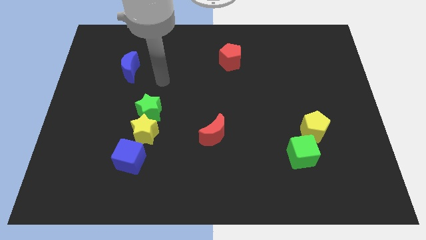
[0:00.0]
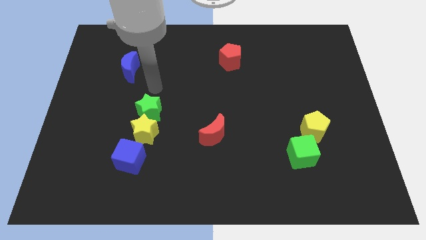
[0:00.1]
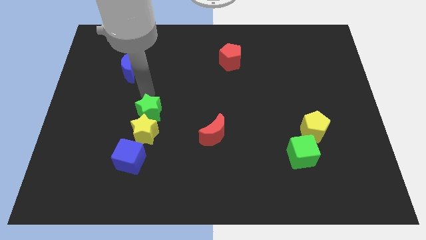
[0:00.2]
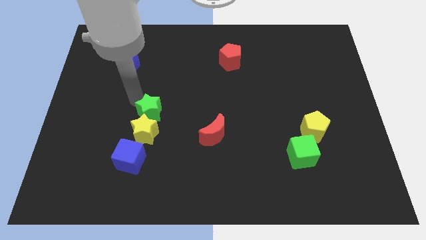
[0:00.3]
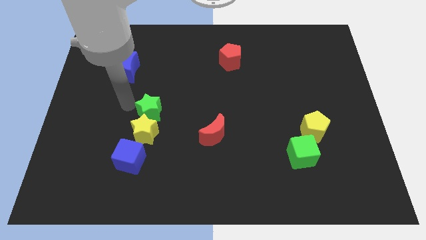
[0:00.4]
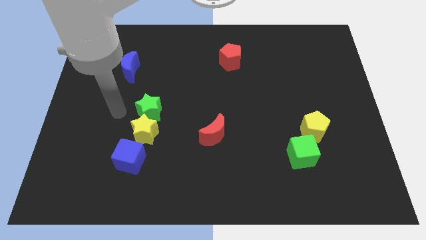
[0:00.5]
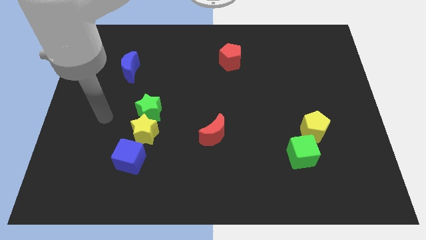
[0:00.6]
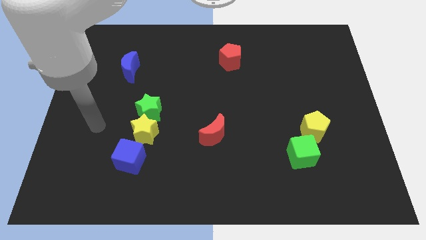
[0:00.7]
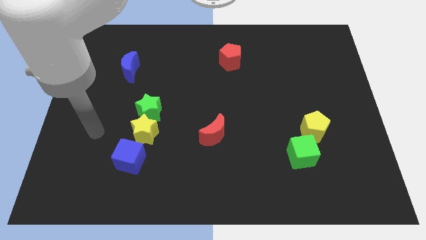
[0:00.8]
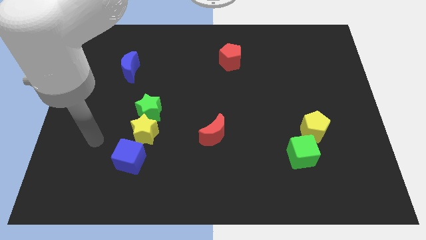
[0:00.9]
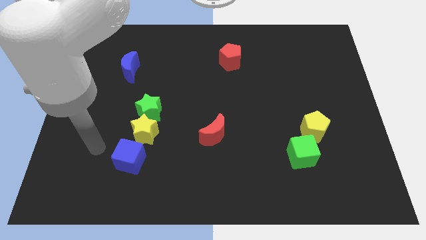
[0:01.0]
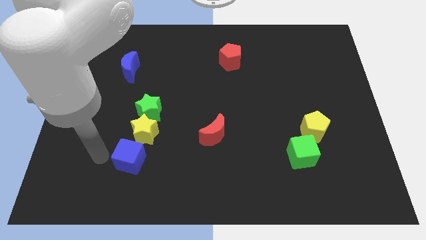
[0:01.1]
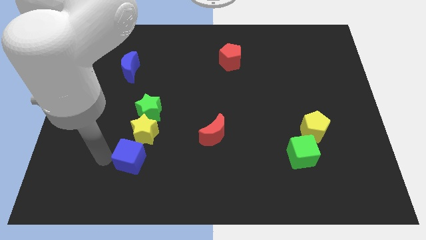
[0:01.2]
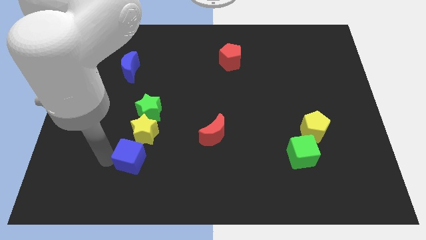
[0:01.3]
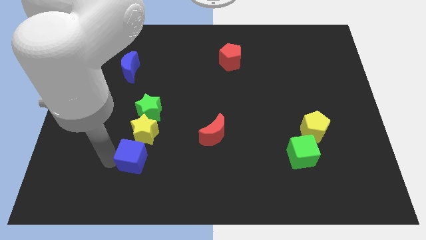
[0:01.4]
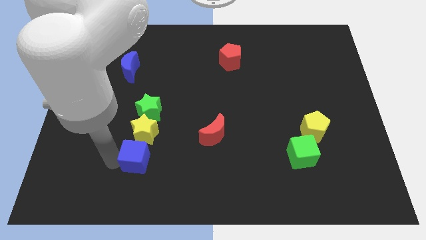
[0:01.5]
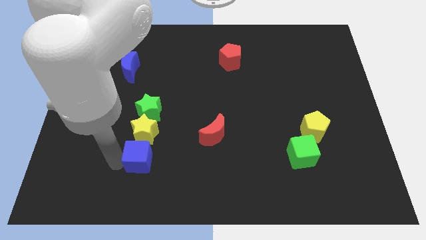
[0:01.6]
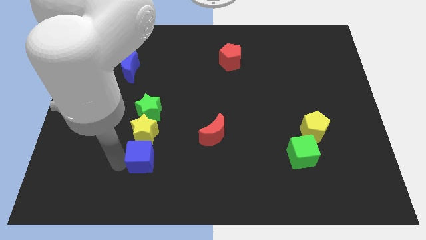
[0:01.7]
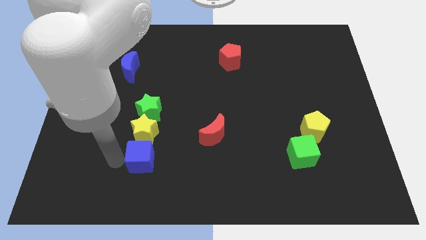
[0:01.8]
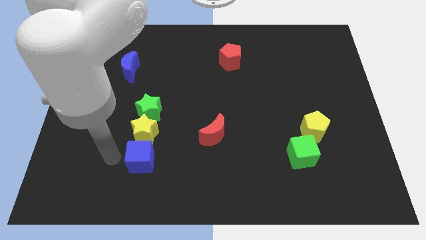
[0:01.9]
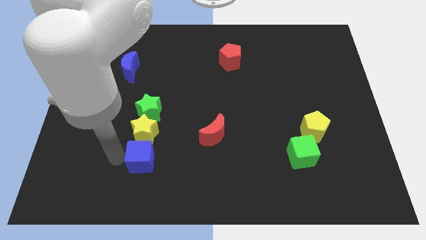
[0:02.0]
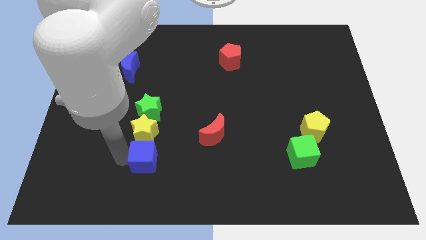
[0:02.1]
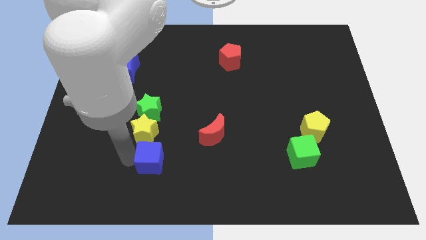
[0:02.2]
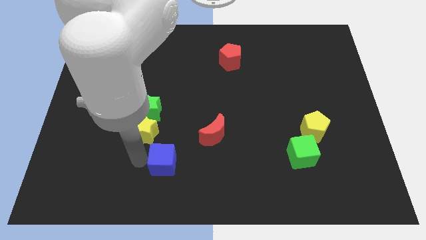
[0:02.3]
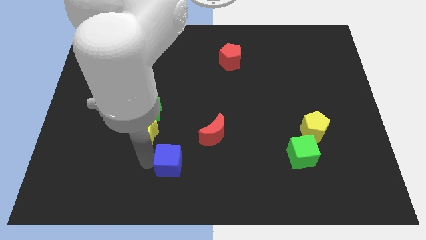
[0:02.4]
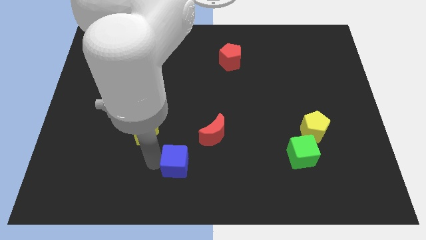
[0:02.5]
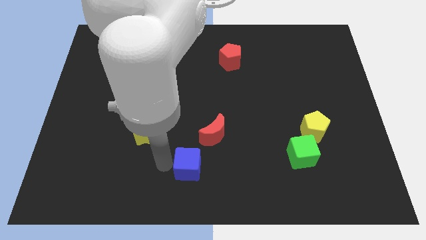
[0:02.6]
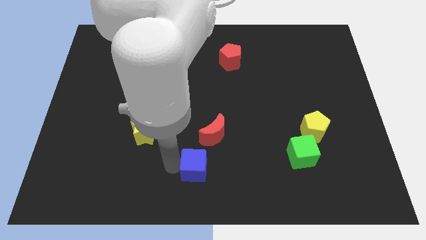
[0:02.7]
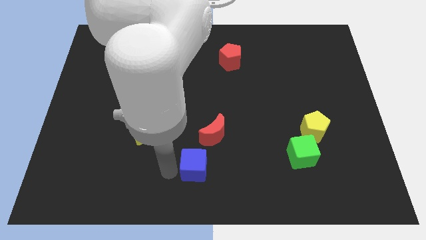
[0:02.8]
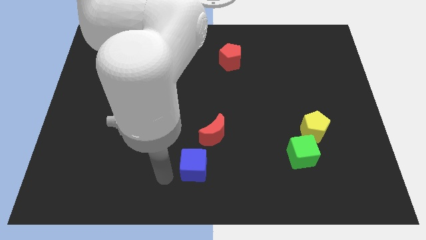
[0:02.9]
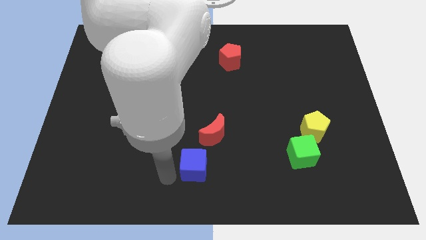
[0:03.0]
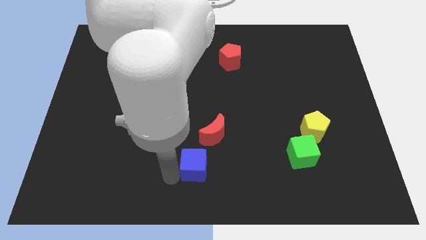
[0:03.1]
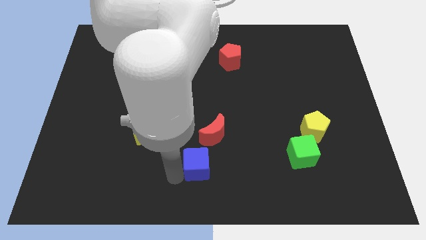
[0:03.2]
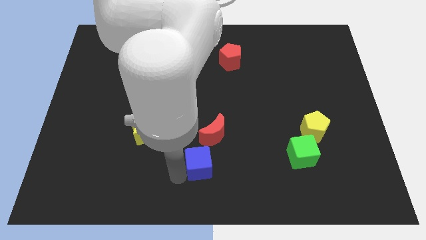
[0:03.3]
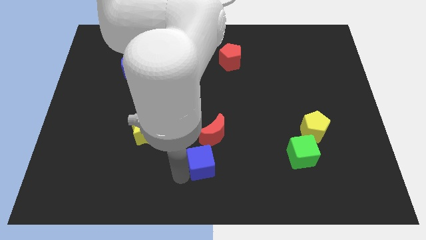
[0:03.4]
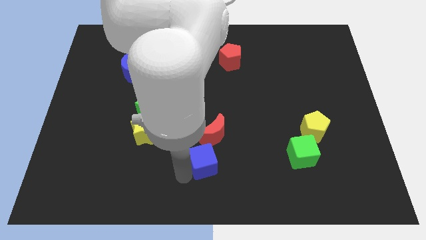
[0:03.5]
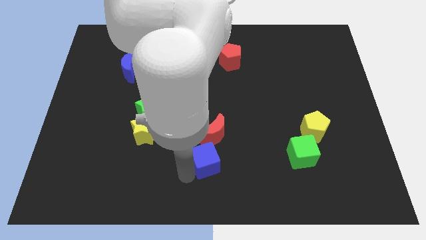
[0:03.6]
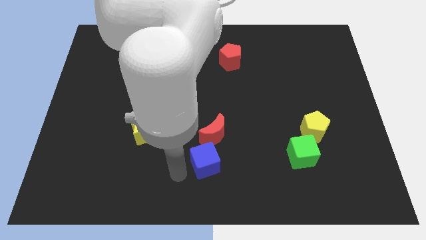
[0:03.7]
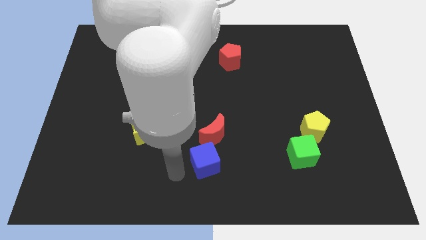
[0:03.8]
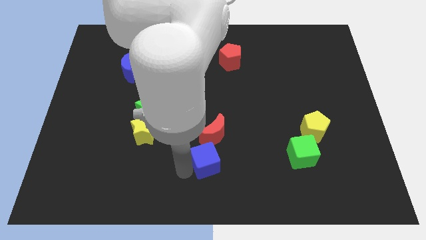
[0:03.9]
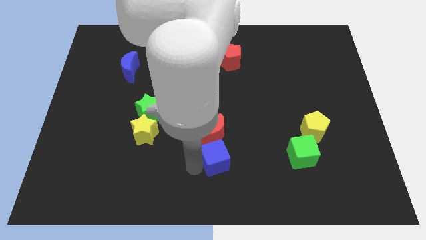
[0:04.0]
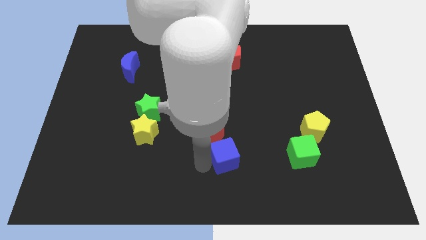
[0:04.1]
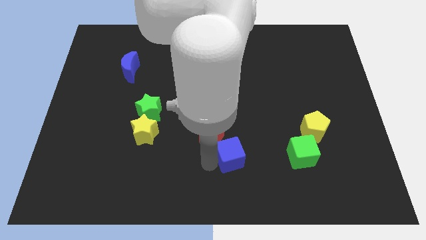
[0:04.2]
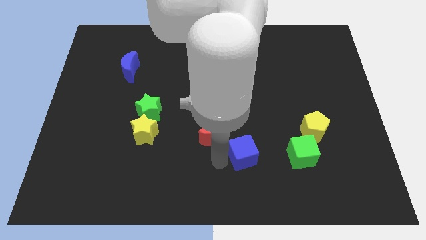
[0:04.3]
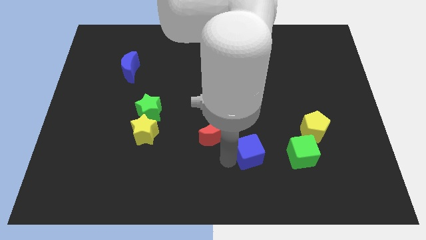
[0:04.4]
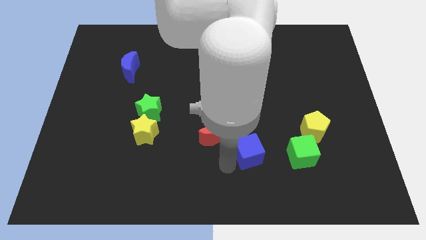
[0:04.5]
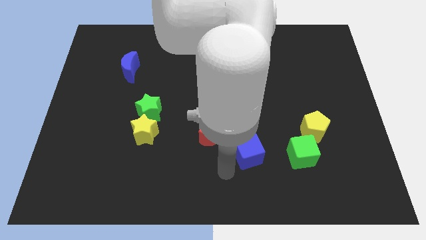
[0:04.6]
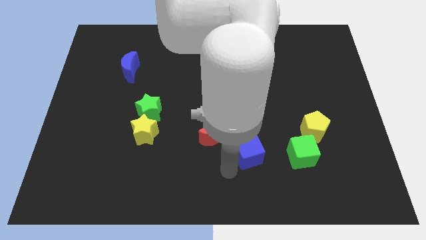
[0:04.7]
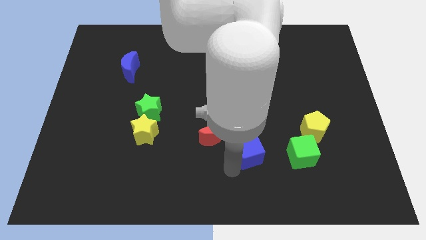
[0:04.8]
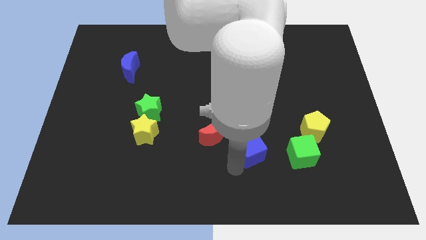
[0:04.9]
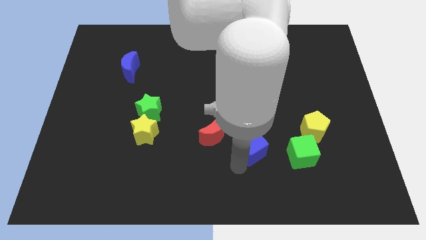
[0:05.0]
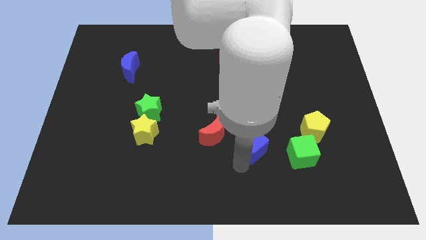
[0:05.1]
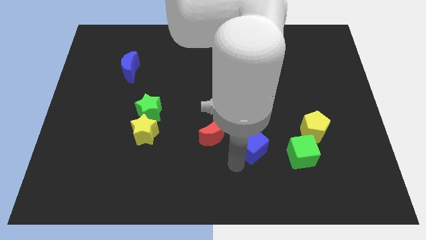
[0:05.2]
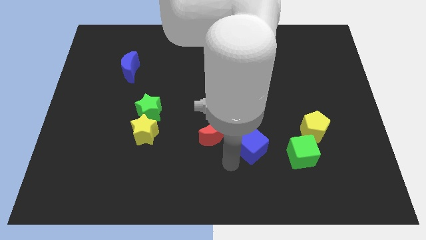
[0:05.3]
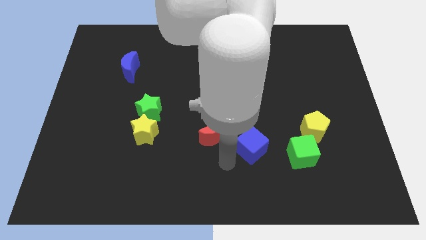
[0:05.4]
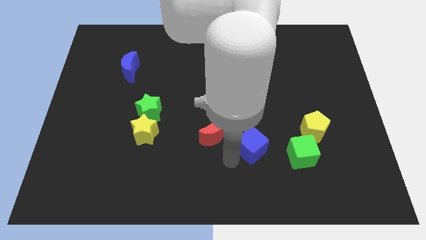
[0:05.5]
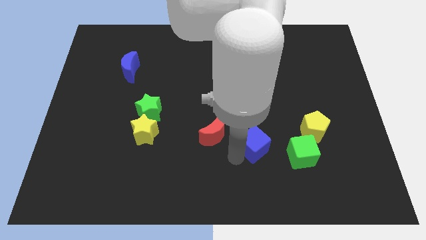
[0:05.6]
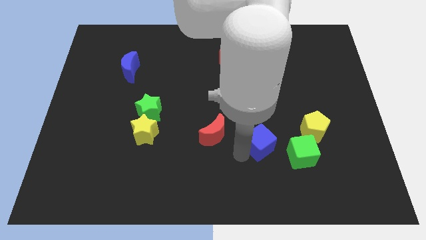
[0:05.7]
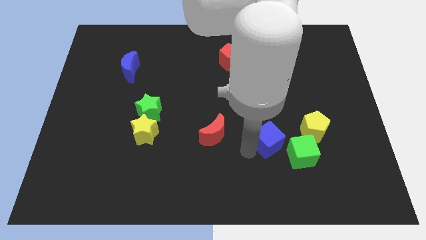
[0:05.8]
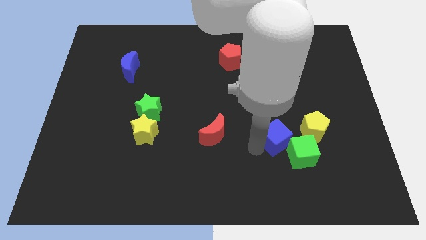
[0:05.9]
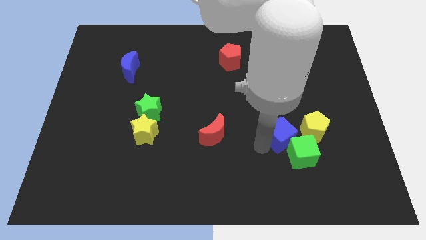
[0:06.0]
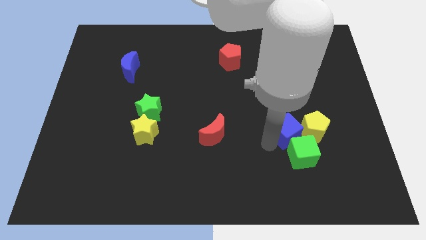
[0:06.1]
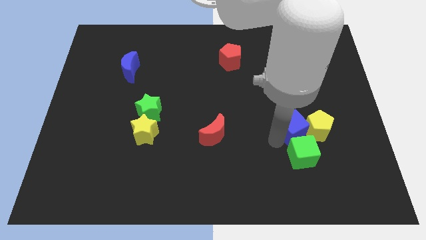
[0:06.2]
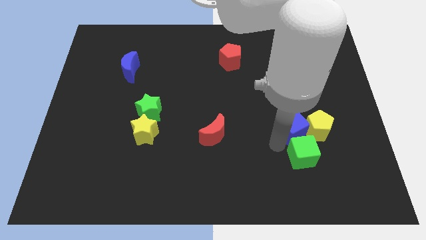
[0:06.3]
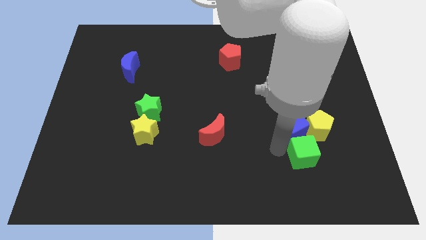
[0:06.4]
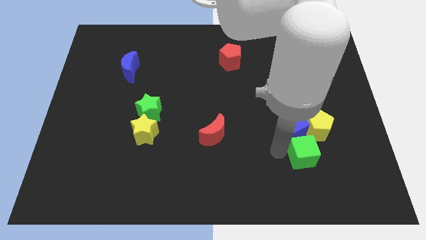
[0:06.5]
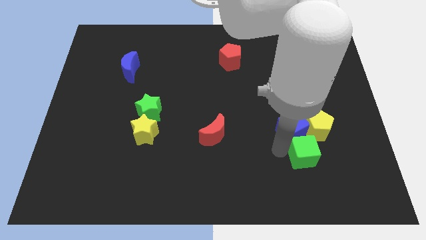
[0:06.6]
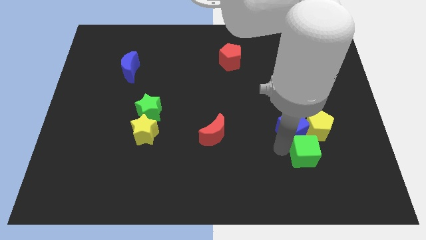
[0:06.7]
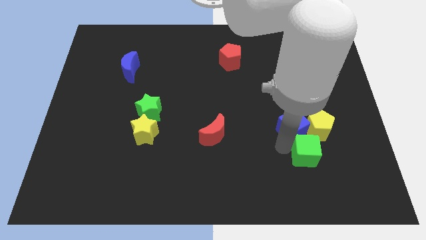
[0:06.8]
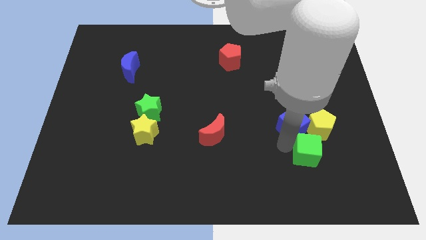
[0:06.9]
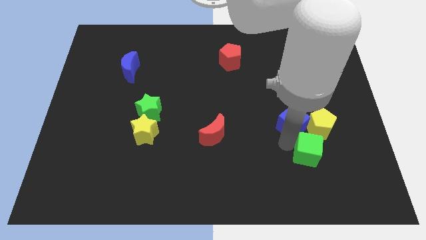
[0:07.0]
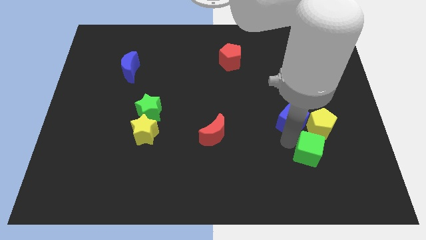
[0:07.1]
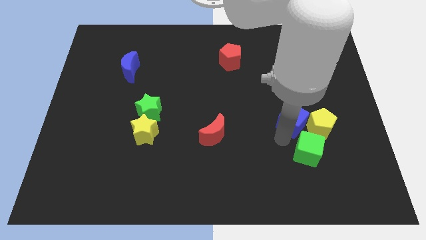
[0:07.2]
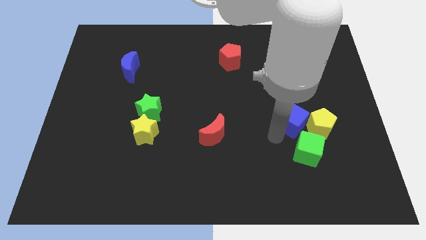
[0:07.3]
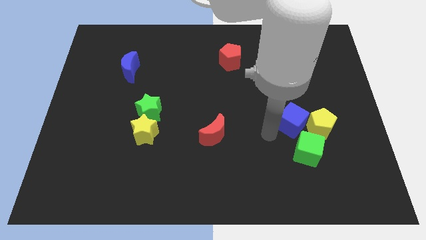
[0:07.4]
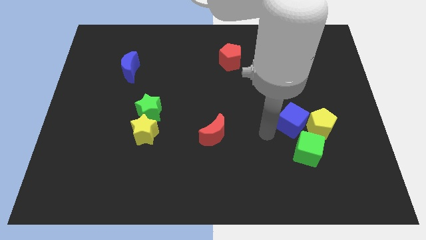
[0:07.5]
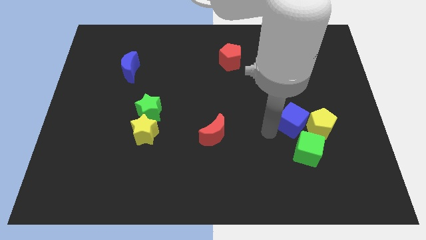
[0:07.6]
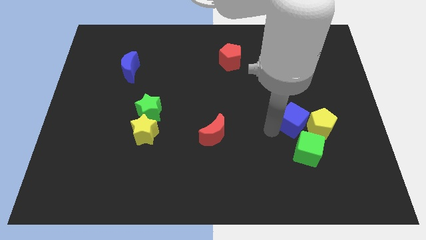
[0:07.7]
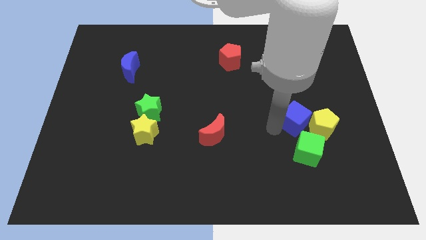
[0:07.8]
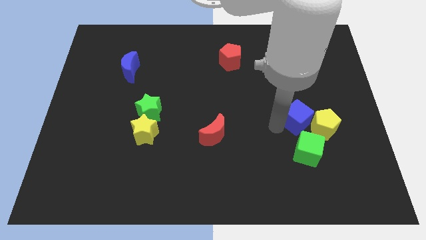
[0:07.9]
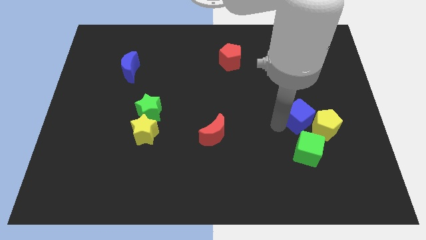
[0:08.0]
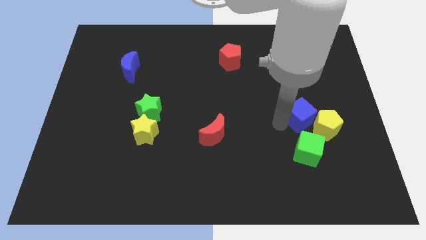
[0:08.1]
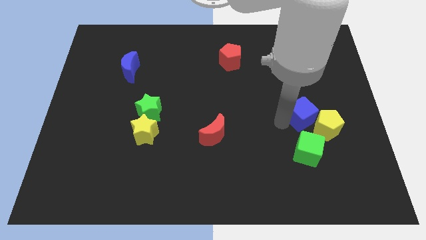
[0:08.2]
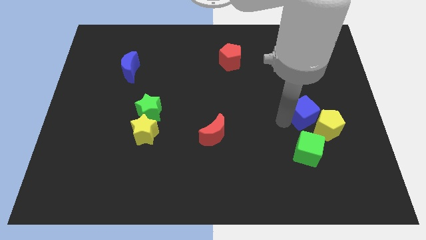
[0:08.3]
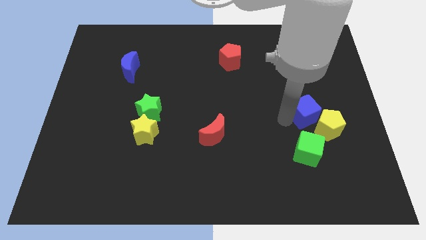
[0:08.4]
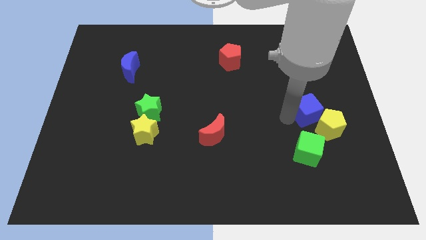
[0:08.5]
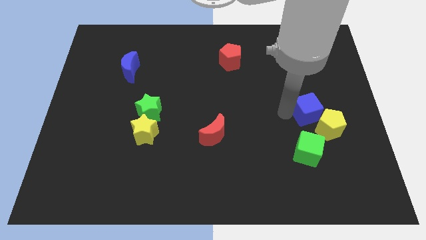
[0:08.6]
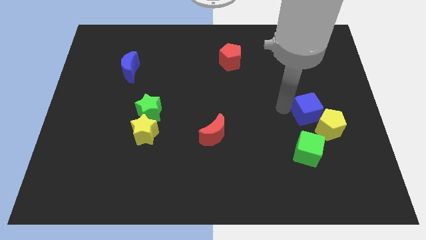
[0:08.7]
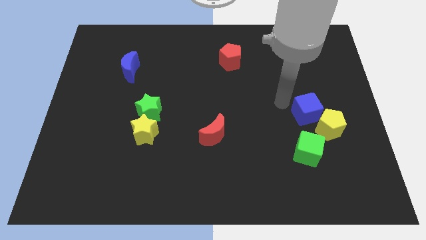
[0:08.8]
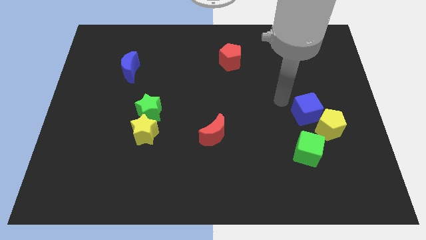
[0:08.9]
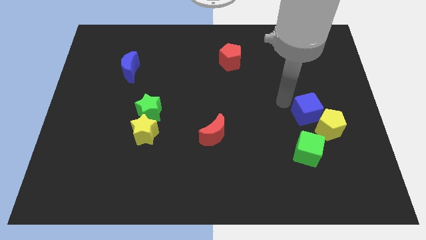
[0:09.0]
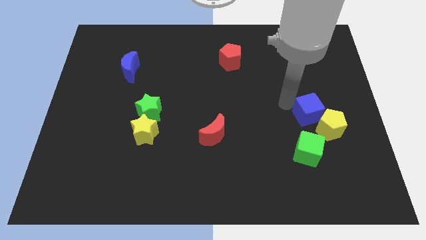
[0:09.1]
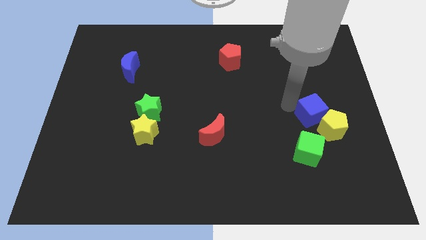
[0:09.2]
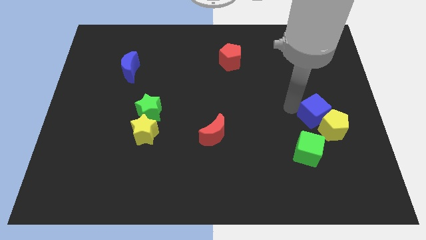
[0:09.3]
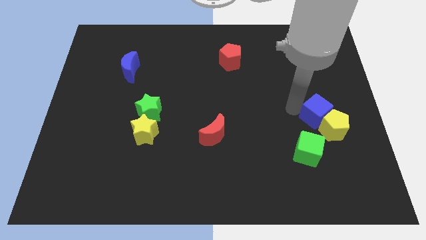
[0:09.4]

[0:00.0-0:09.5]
slide the blue cube to the top right side of the green cube
